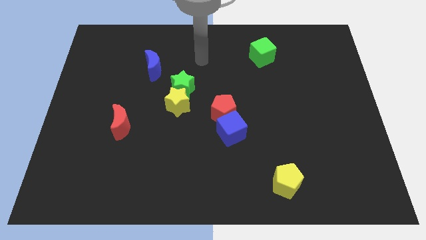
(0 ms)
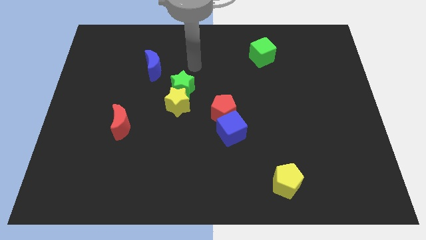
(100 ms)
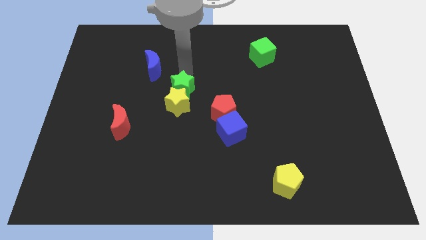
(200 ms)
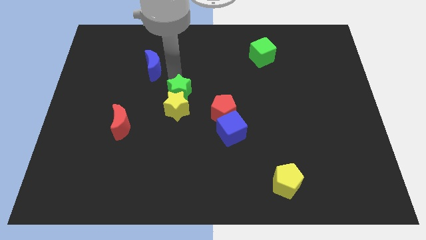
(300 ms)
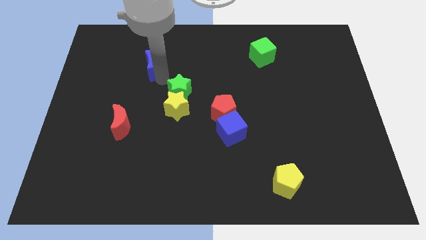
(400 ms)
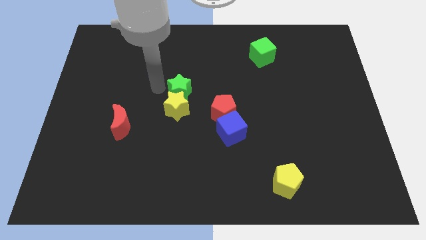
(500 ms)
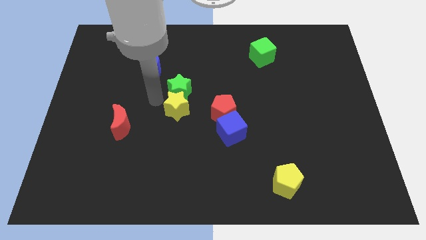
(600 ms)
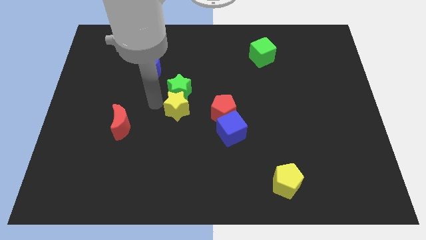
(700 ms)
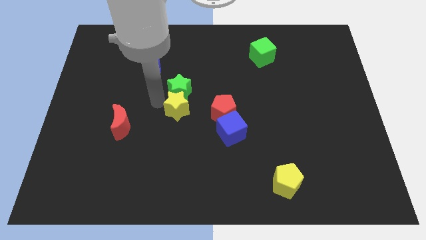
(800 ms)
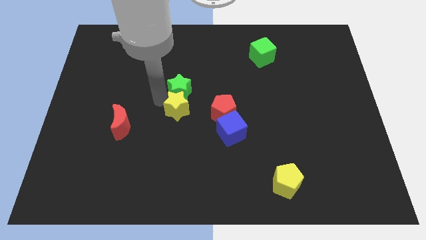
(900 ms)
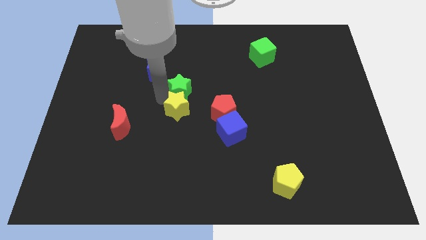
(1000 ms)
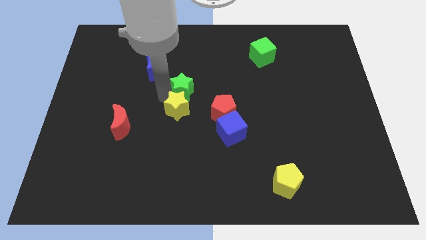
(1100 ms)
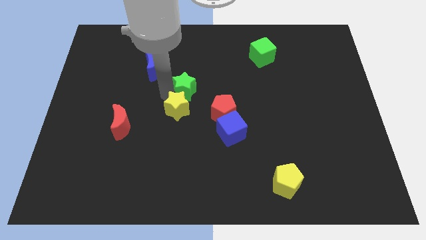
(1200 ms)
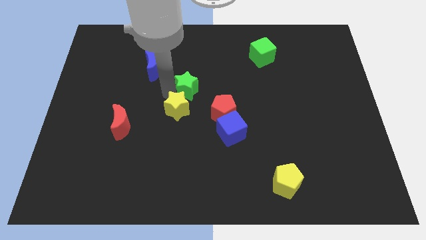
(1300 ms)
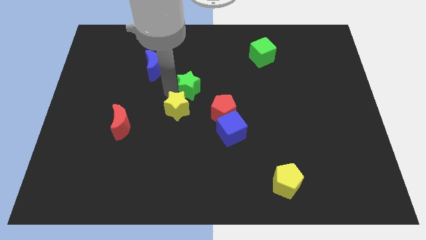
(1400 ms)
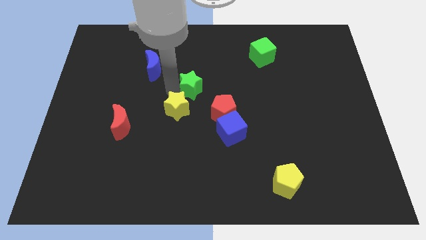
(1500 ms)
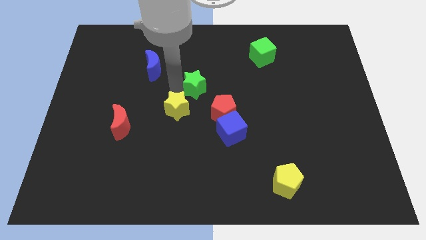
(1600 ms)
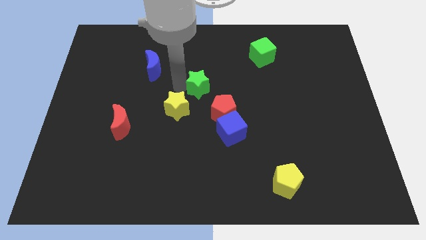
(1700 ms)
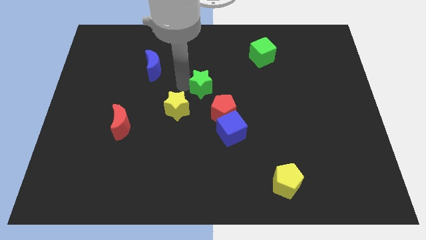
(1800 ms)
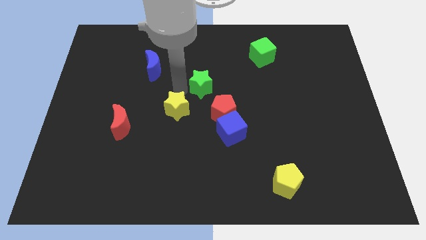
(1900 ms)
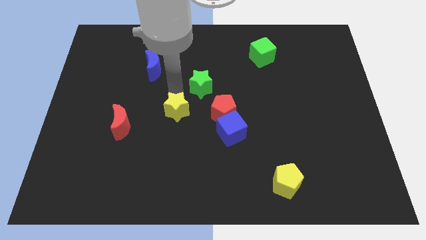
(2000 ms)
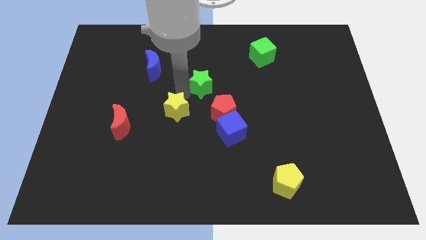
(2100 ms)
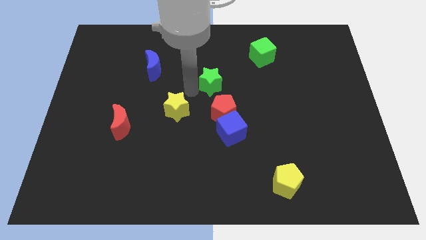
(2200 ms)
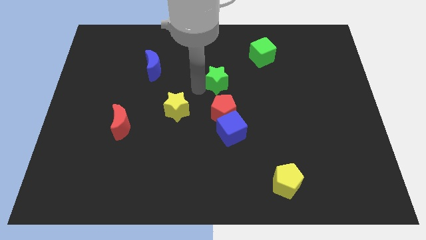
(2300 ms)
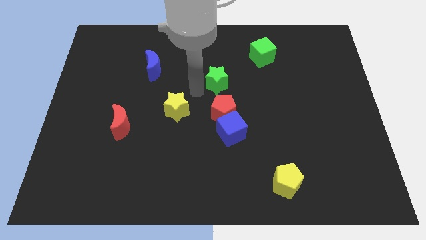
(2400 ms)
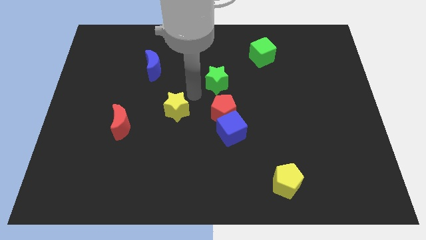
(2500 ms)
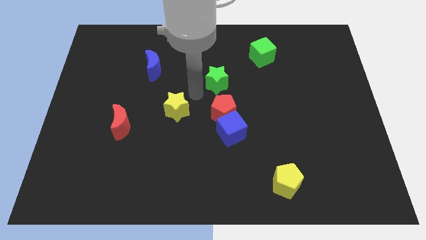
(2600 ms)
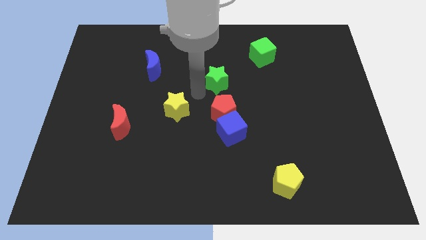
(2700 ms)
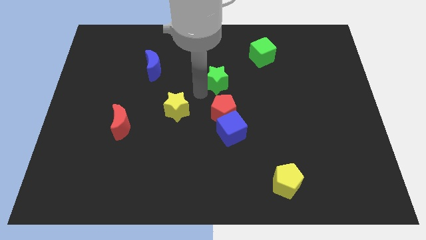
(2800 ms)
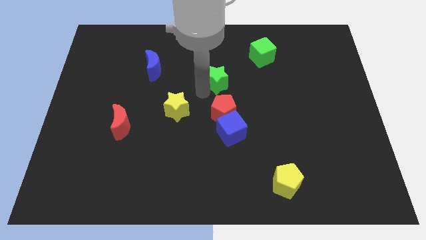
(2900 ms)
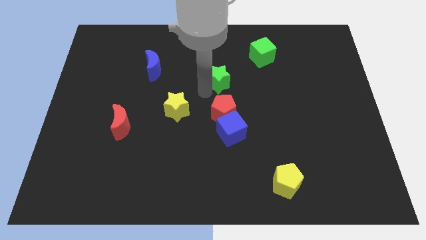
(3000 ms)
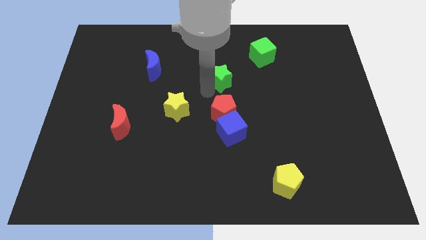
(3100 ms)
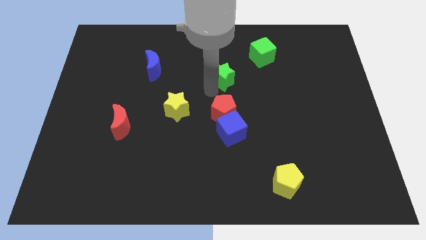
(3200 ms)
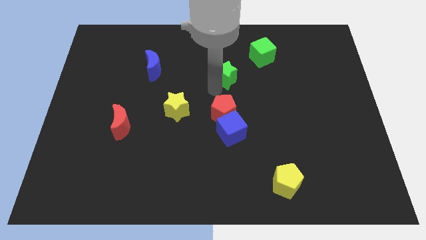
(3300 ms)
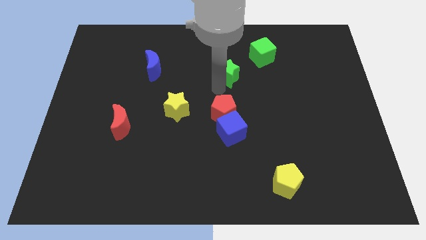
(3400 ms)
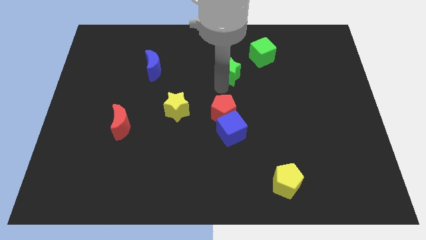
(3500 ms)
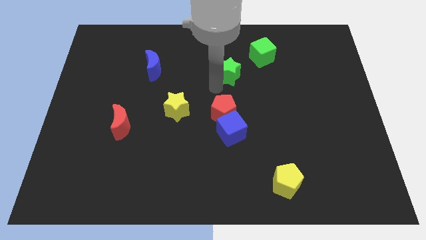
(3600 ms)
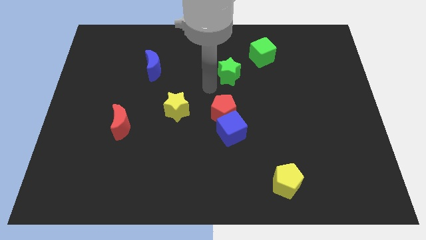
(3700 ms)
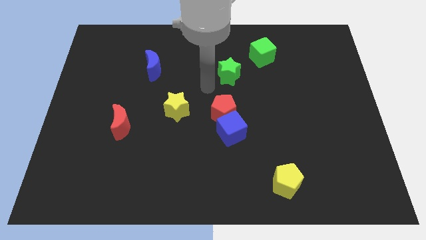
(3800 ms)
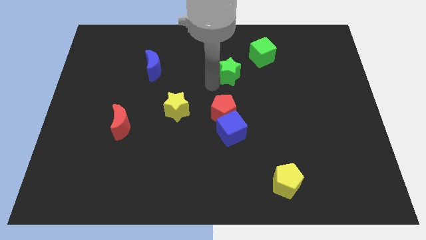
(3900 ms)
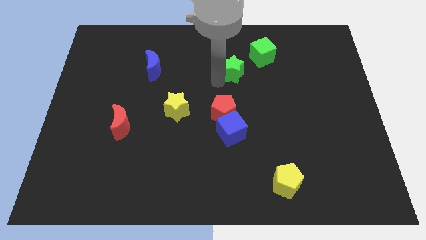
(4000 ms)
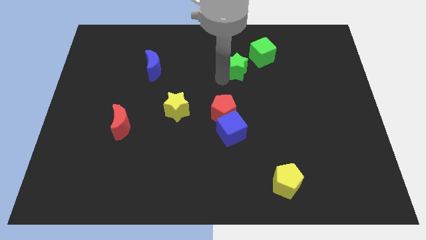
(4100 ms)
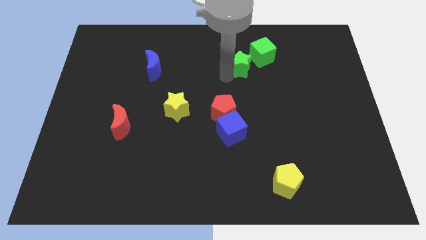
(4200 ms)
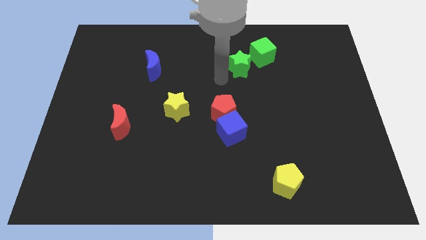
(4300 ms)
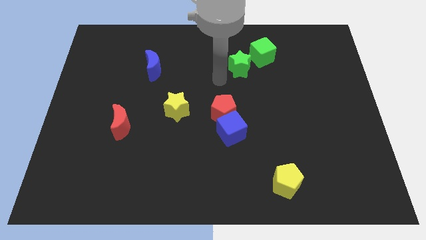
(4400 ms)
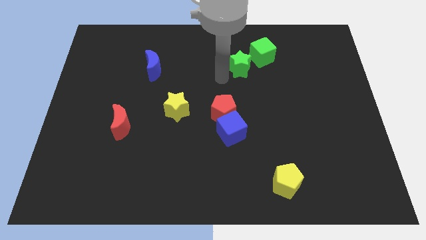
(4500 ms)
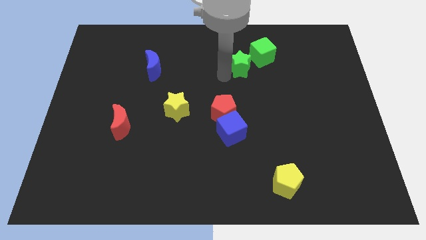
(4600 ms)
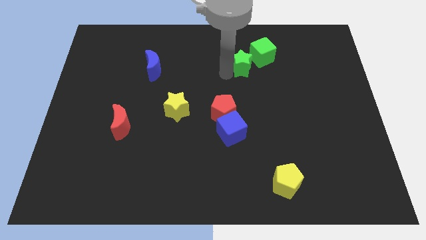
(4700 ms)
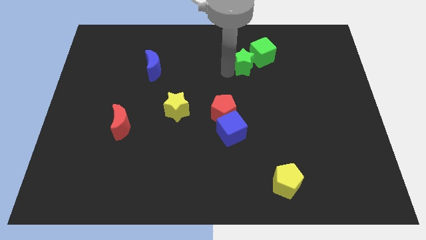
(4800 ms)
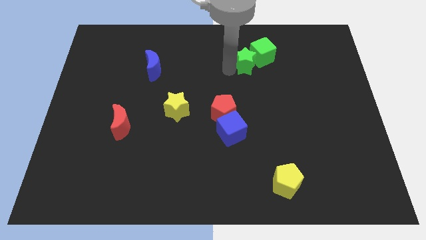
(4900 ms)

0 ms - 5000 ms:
push the green star next to the green cube

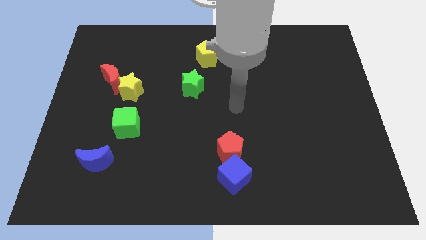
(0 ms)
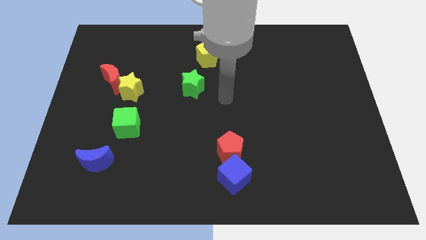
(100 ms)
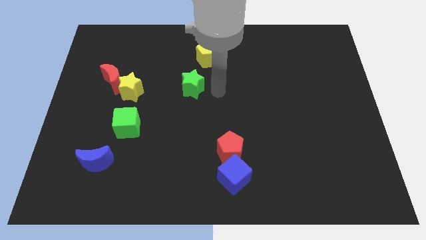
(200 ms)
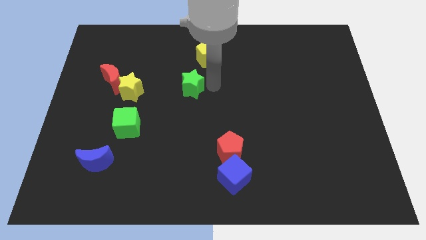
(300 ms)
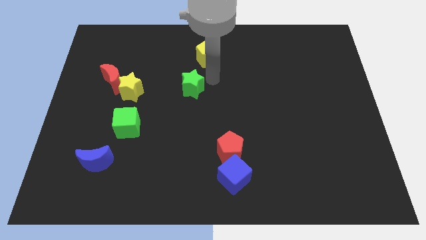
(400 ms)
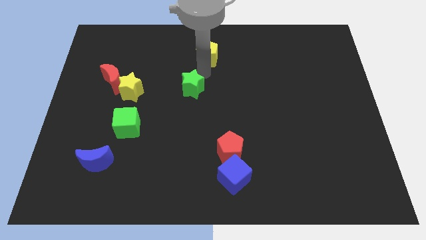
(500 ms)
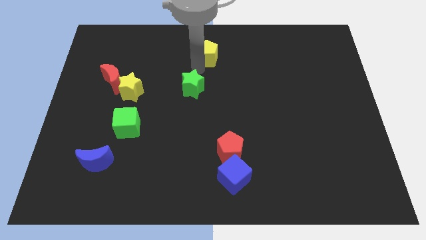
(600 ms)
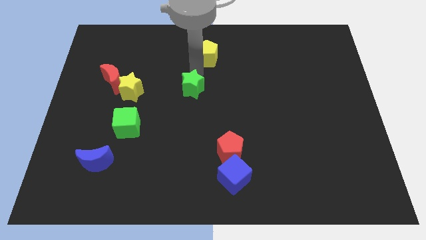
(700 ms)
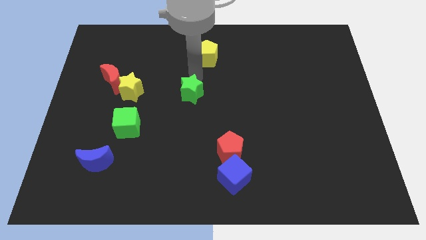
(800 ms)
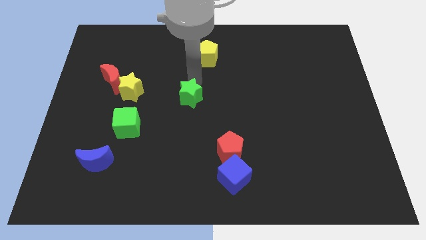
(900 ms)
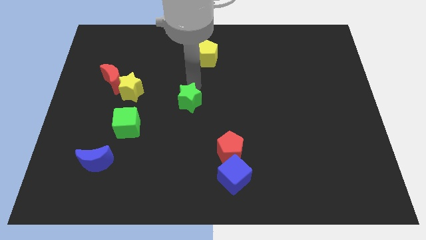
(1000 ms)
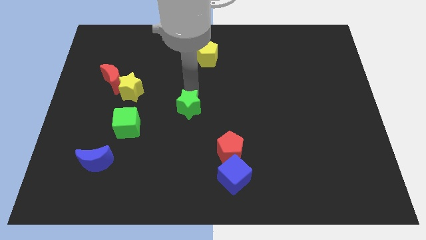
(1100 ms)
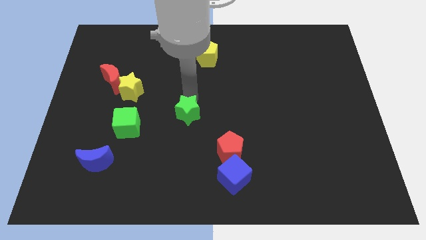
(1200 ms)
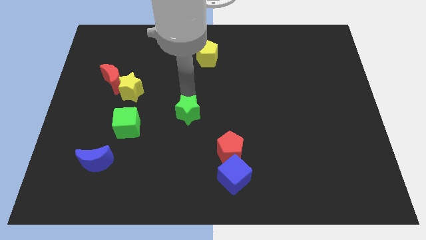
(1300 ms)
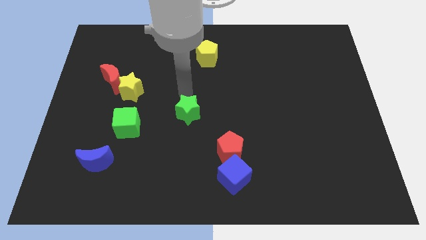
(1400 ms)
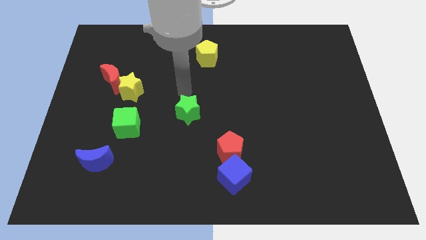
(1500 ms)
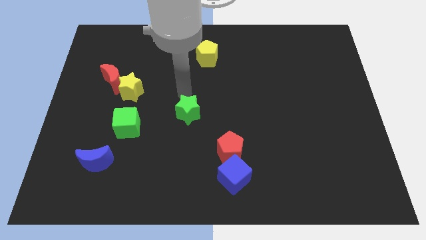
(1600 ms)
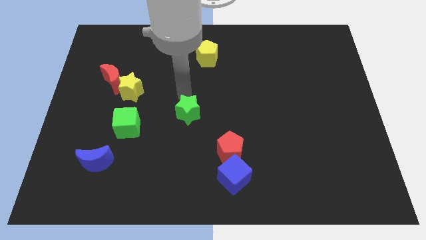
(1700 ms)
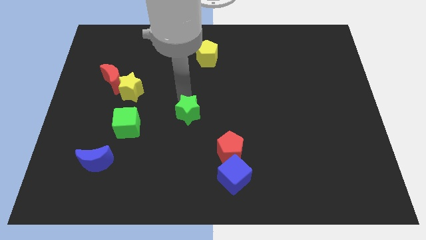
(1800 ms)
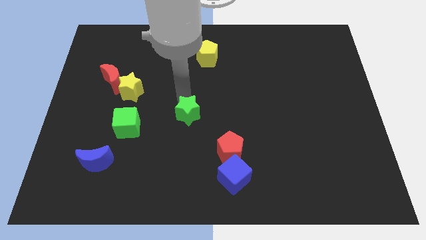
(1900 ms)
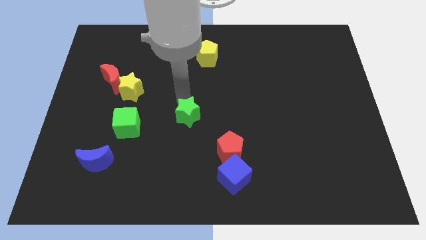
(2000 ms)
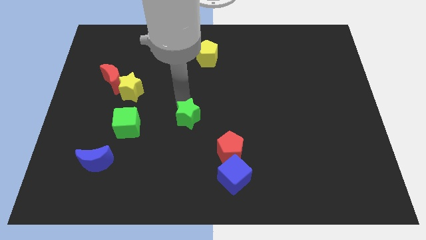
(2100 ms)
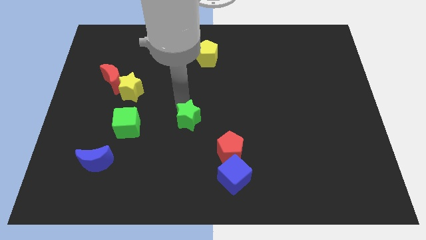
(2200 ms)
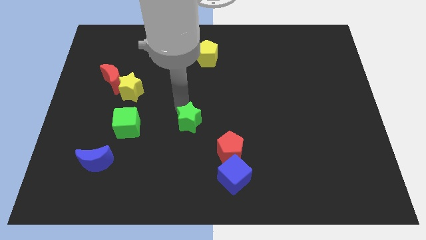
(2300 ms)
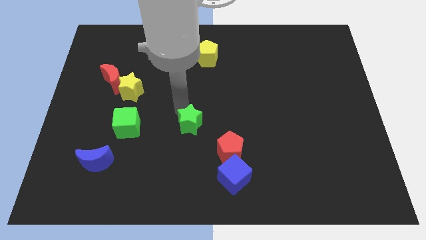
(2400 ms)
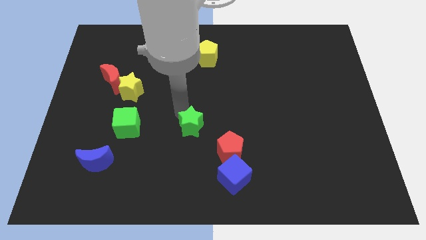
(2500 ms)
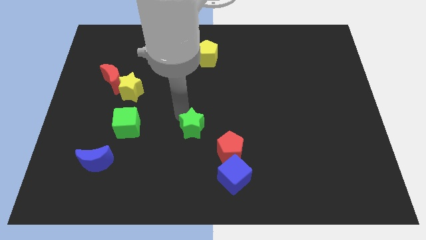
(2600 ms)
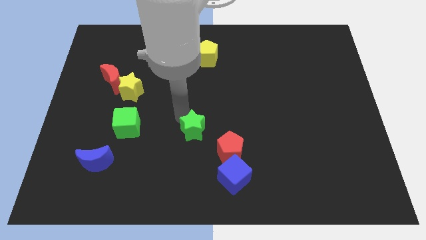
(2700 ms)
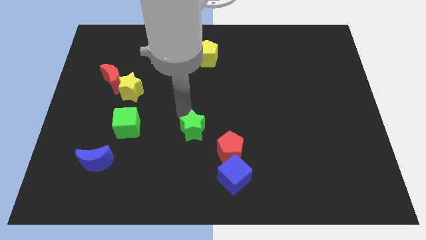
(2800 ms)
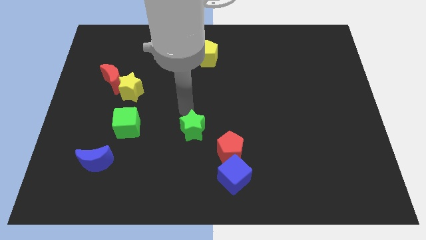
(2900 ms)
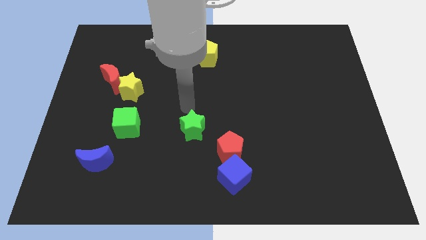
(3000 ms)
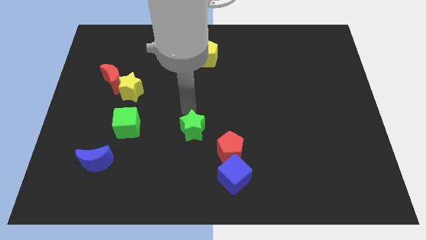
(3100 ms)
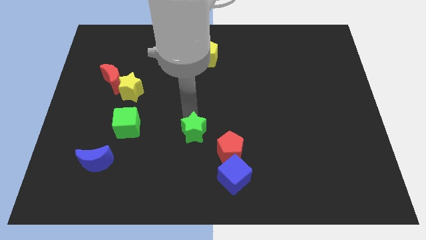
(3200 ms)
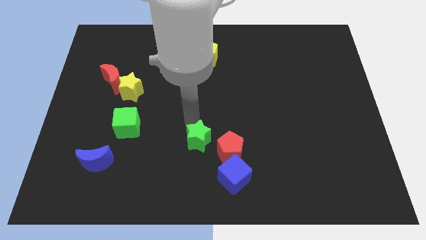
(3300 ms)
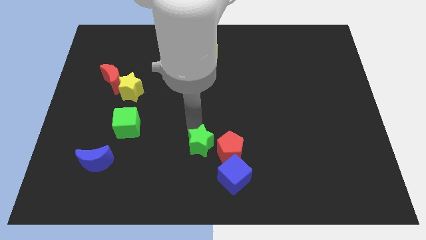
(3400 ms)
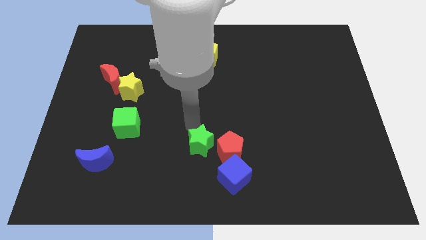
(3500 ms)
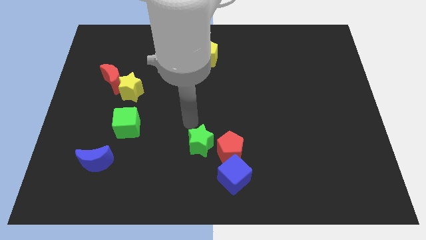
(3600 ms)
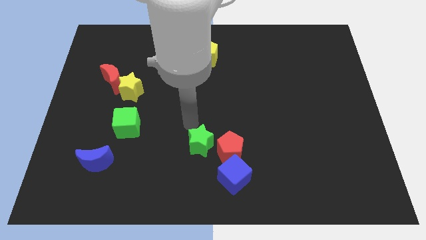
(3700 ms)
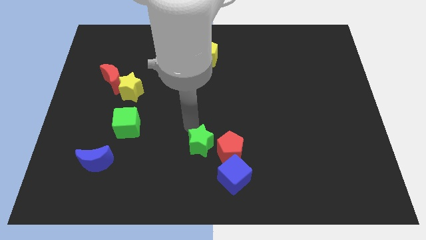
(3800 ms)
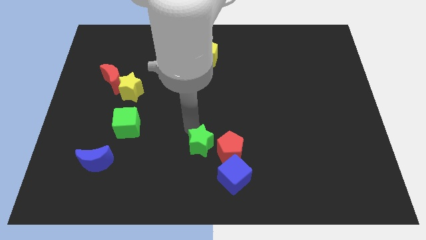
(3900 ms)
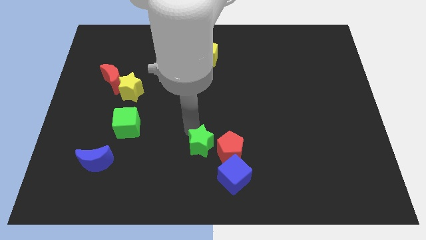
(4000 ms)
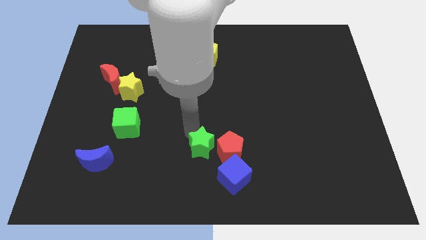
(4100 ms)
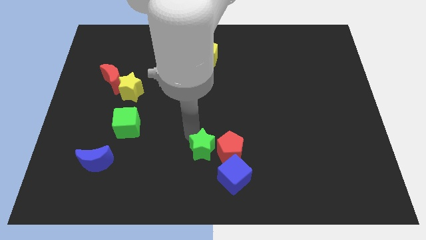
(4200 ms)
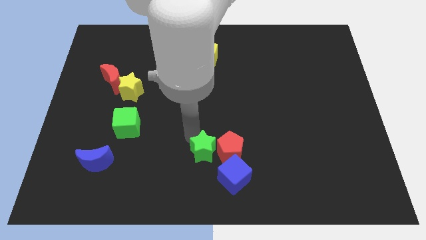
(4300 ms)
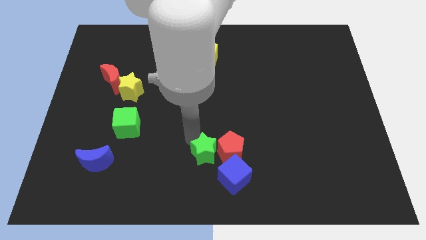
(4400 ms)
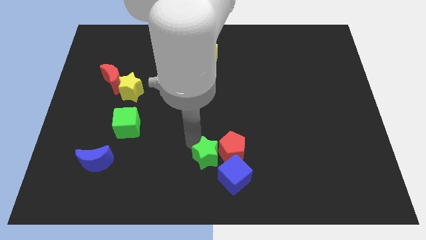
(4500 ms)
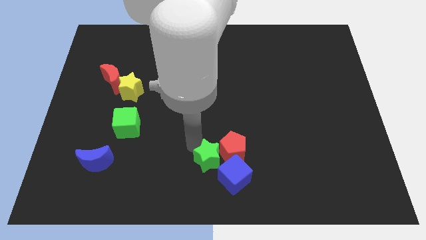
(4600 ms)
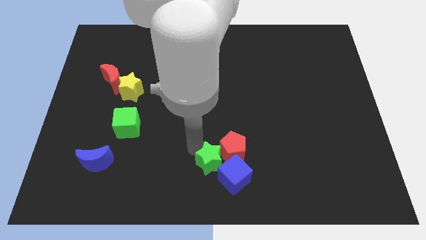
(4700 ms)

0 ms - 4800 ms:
slide the green star to the blue cube
